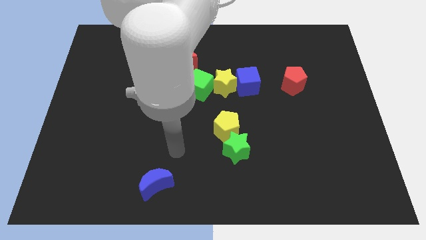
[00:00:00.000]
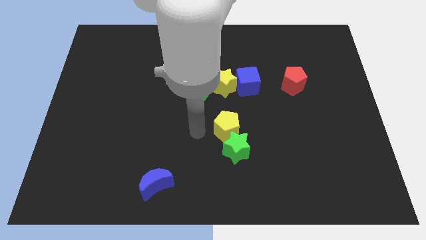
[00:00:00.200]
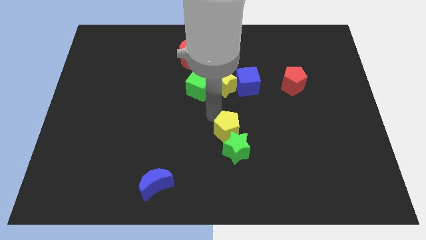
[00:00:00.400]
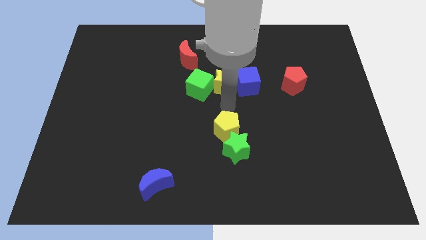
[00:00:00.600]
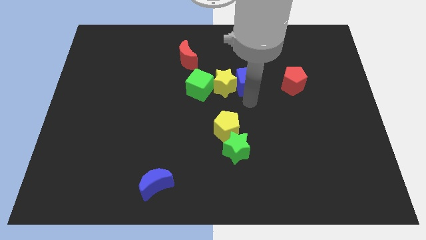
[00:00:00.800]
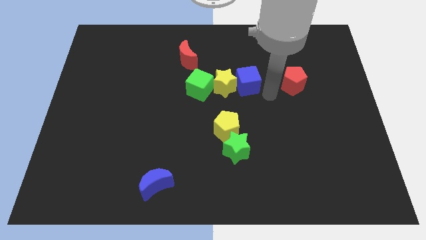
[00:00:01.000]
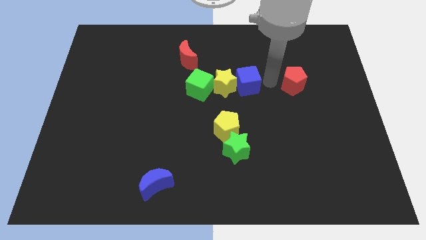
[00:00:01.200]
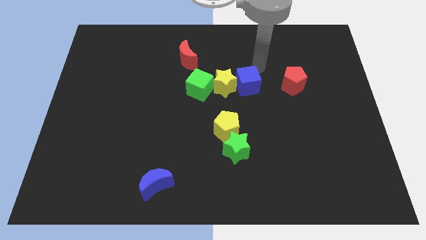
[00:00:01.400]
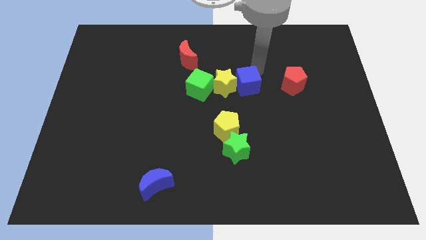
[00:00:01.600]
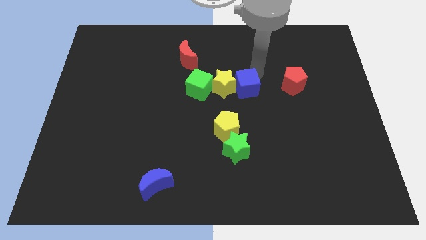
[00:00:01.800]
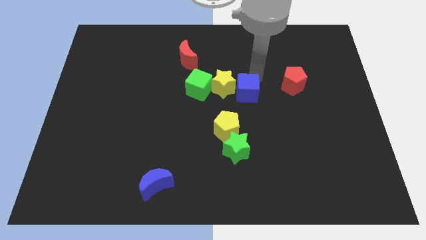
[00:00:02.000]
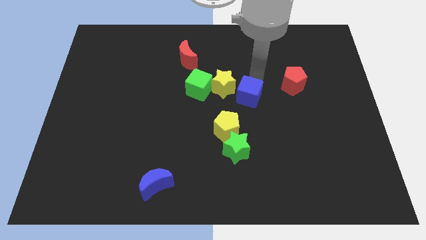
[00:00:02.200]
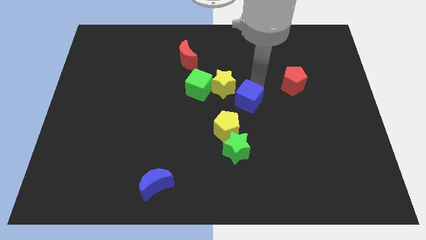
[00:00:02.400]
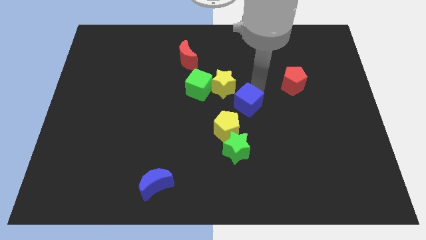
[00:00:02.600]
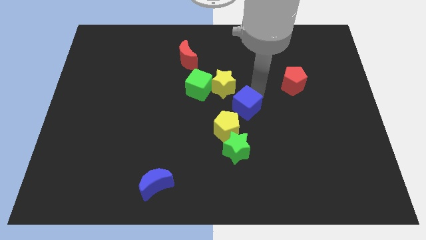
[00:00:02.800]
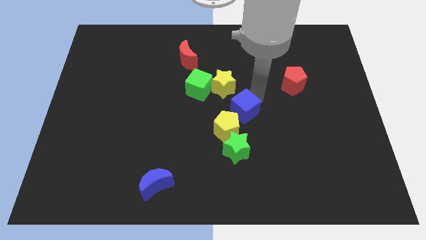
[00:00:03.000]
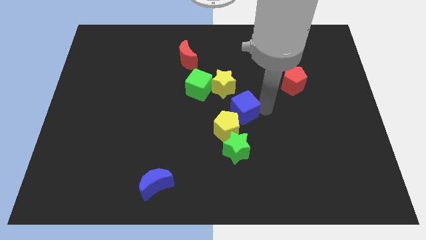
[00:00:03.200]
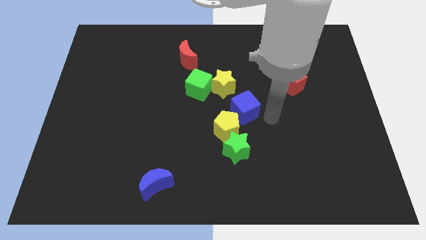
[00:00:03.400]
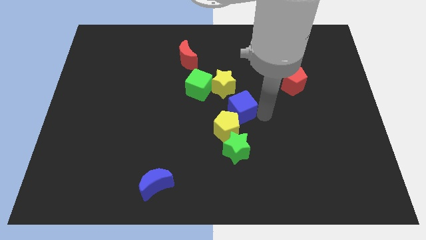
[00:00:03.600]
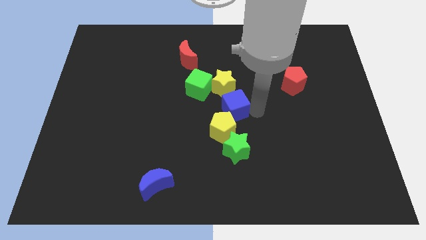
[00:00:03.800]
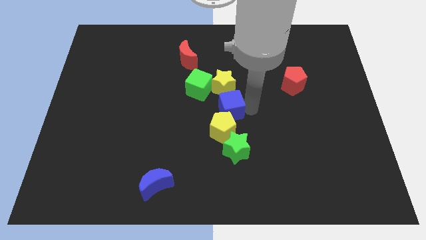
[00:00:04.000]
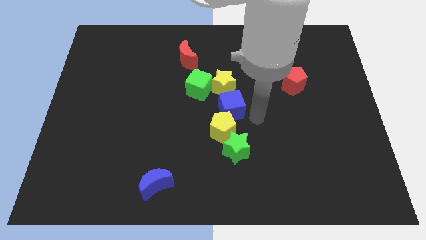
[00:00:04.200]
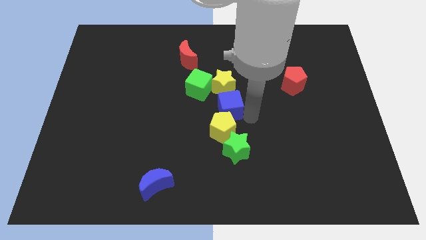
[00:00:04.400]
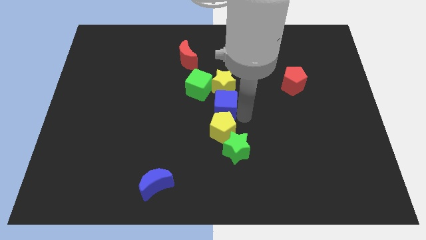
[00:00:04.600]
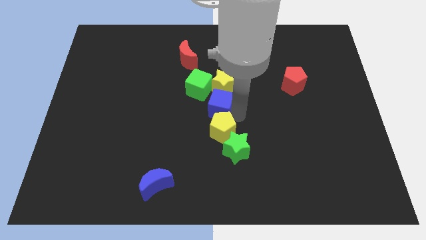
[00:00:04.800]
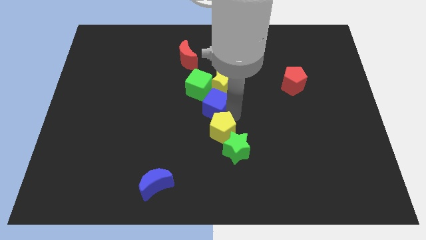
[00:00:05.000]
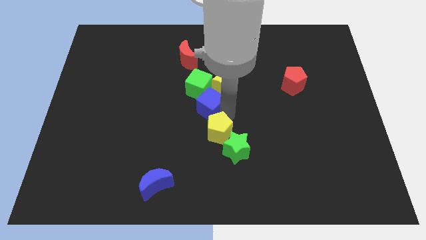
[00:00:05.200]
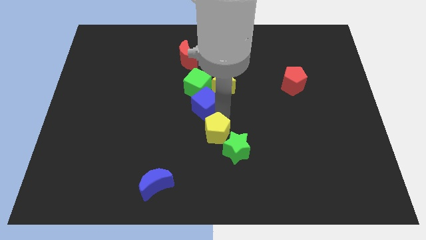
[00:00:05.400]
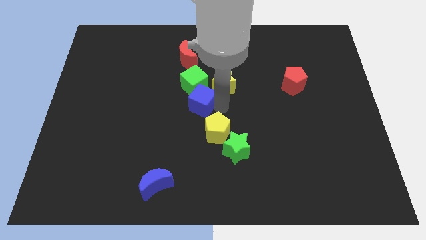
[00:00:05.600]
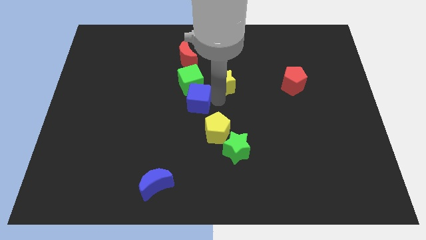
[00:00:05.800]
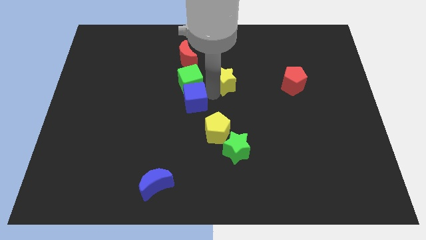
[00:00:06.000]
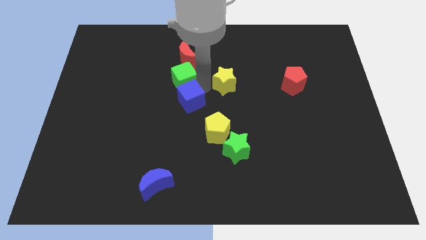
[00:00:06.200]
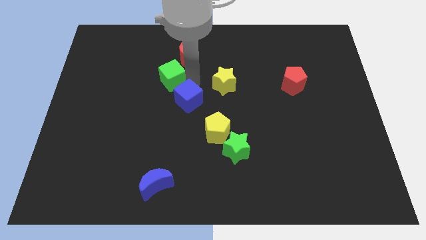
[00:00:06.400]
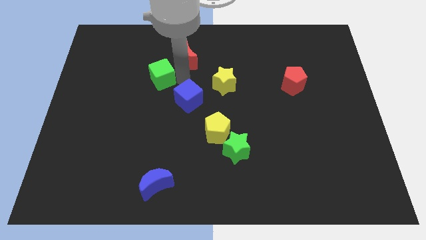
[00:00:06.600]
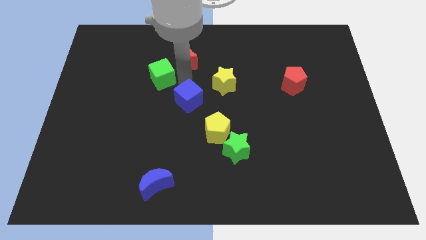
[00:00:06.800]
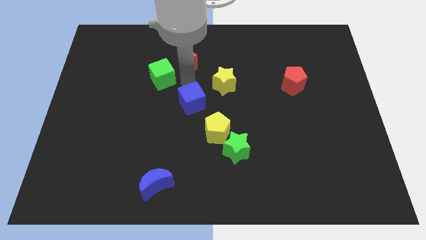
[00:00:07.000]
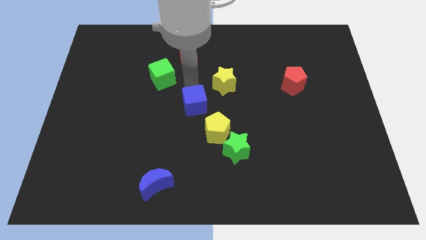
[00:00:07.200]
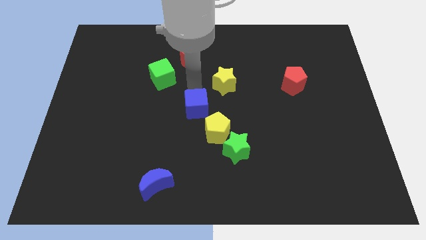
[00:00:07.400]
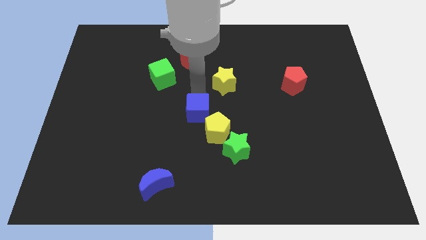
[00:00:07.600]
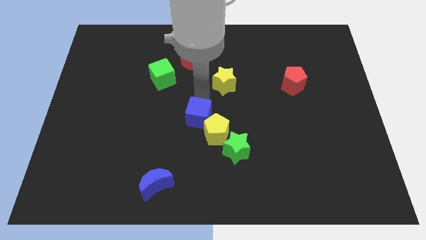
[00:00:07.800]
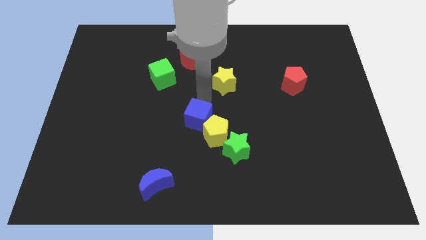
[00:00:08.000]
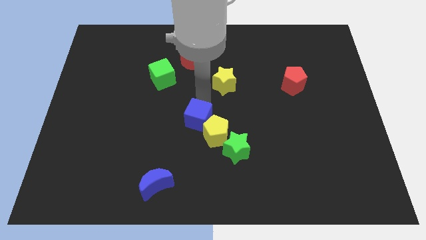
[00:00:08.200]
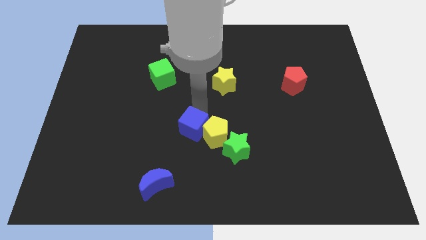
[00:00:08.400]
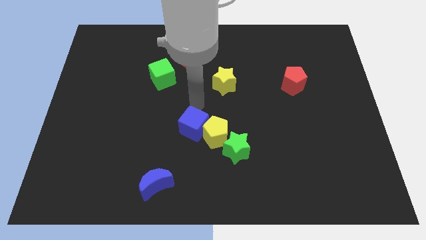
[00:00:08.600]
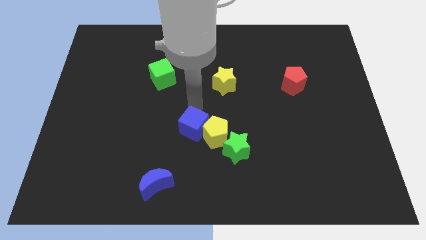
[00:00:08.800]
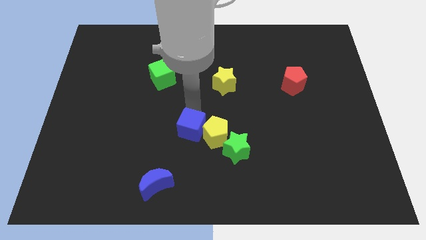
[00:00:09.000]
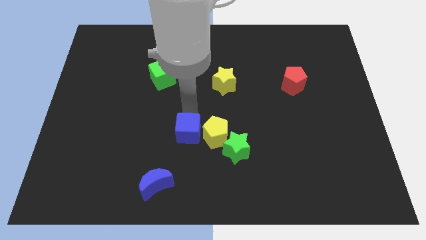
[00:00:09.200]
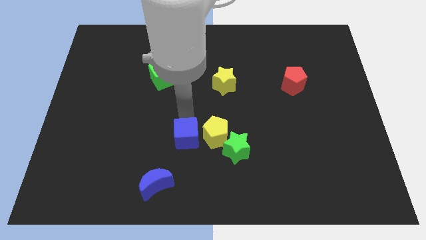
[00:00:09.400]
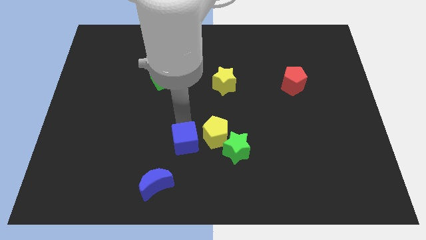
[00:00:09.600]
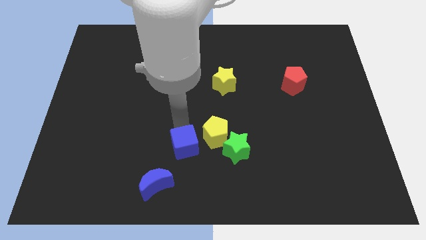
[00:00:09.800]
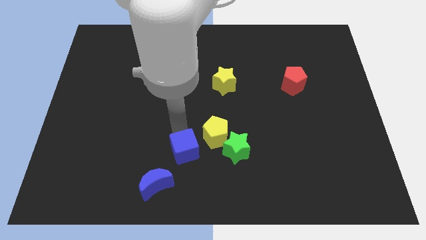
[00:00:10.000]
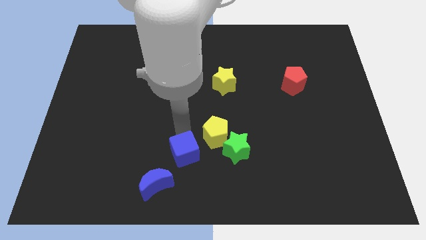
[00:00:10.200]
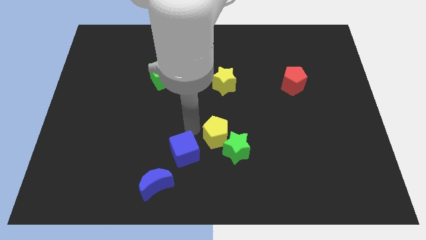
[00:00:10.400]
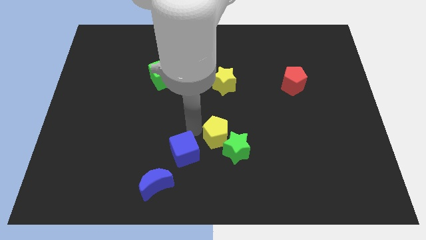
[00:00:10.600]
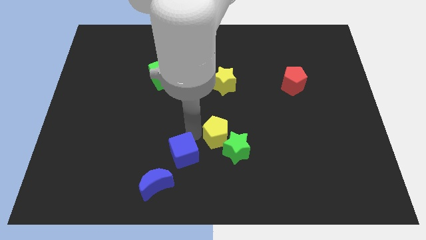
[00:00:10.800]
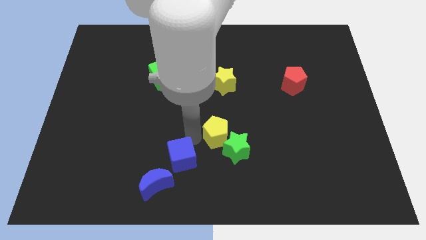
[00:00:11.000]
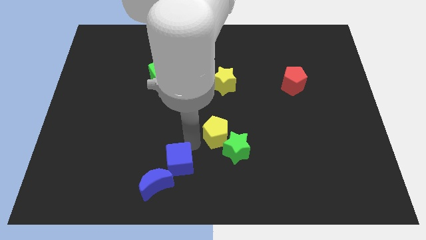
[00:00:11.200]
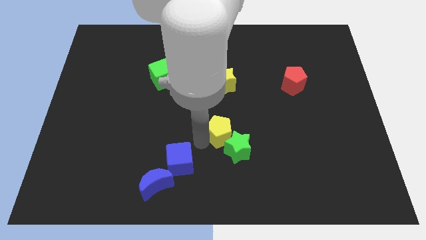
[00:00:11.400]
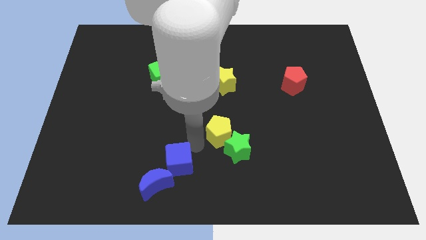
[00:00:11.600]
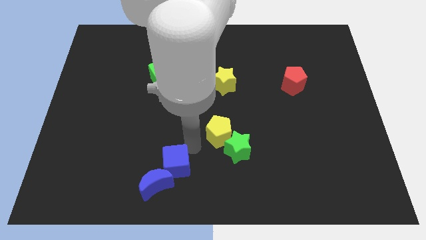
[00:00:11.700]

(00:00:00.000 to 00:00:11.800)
put the blue cube next to the blue moon

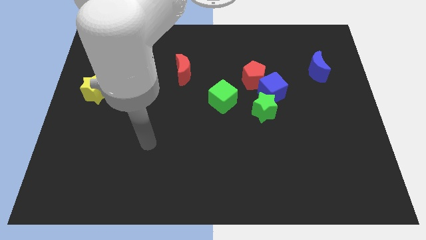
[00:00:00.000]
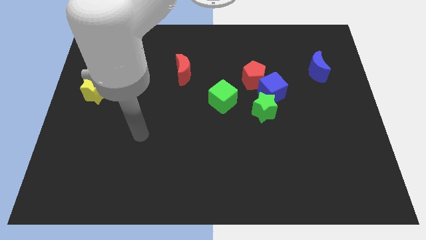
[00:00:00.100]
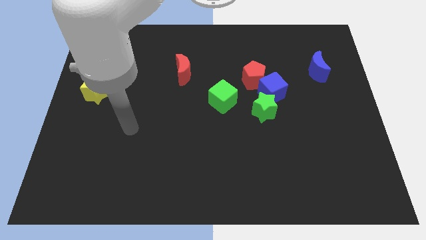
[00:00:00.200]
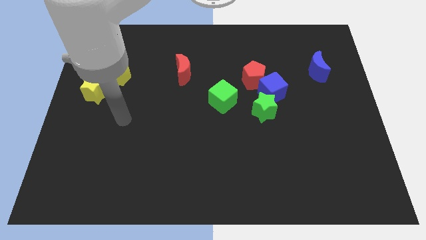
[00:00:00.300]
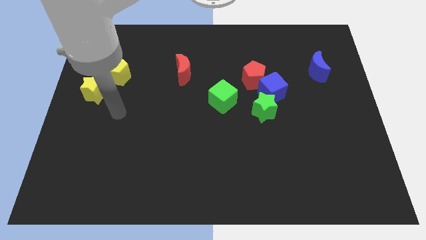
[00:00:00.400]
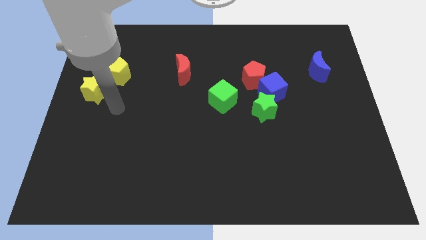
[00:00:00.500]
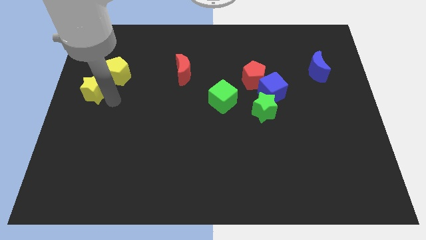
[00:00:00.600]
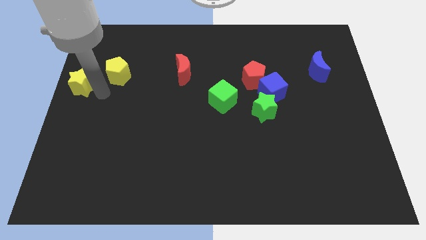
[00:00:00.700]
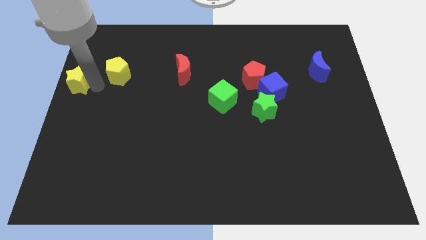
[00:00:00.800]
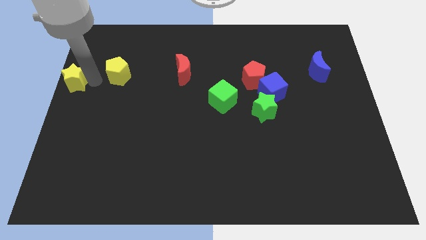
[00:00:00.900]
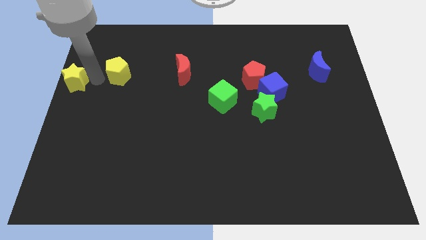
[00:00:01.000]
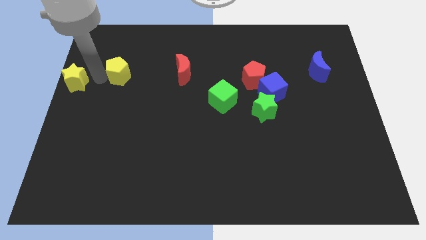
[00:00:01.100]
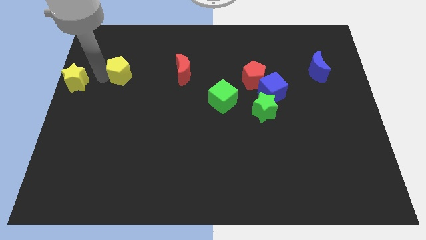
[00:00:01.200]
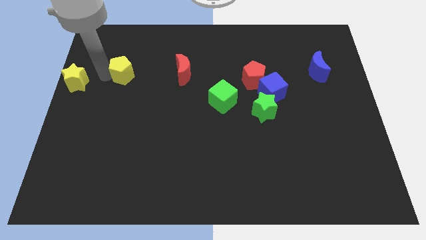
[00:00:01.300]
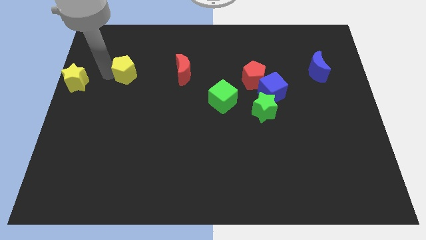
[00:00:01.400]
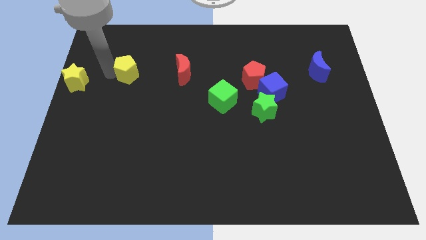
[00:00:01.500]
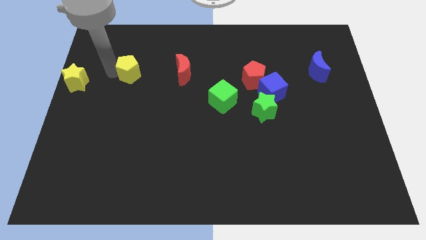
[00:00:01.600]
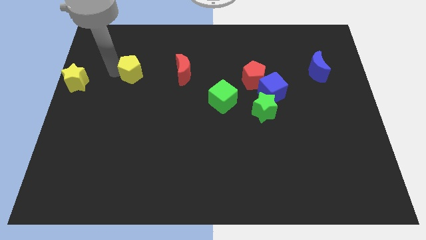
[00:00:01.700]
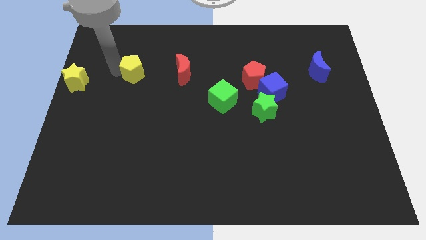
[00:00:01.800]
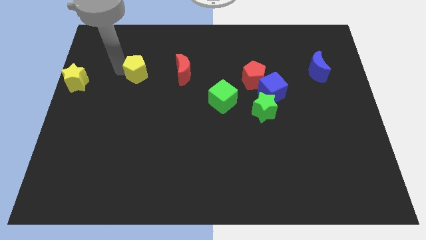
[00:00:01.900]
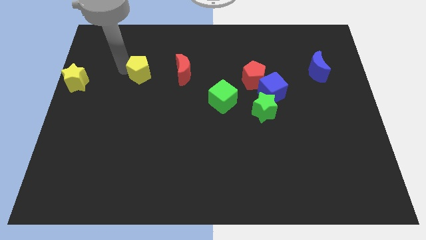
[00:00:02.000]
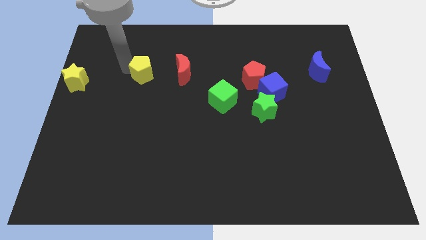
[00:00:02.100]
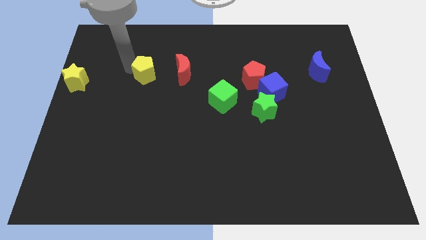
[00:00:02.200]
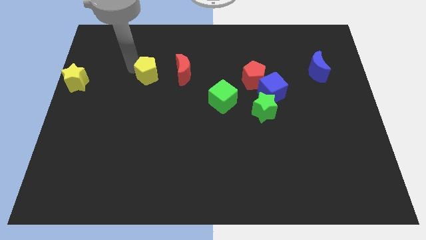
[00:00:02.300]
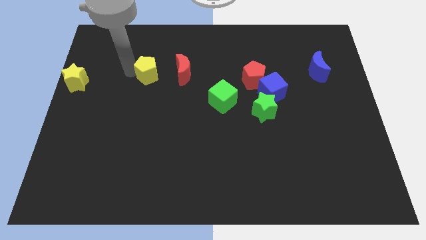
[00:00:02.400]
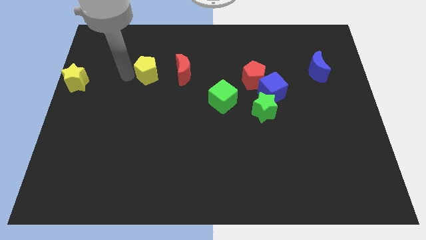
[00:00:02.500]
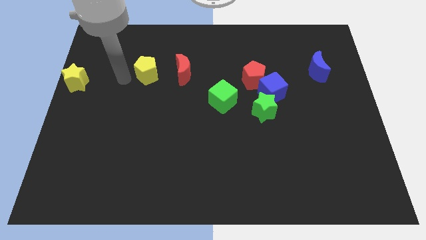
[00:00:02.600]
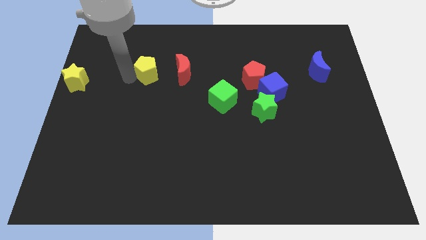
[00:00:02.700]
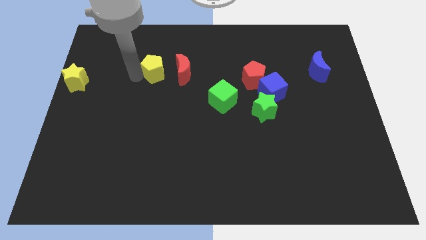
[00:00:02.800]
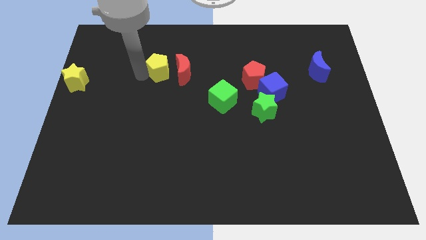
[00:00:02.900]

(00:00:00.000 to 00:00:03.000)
slide the yellow pentagon close to the red moon
